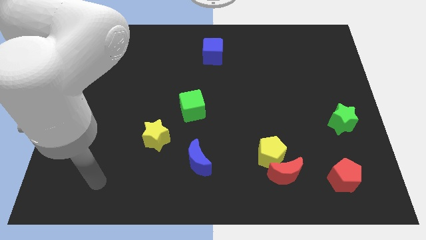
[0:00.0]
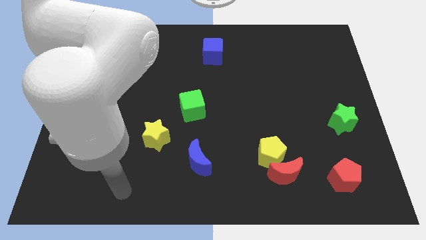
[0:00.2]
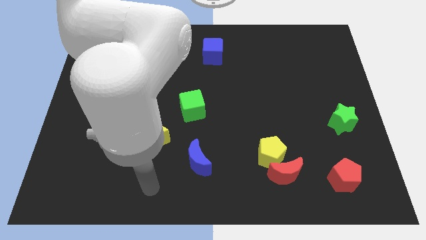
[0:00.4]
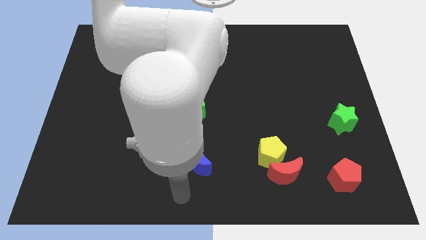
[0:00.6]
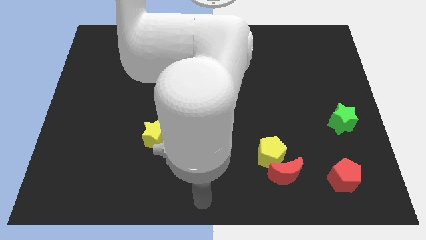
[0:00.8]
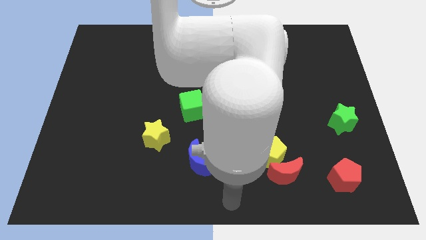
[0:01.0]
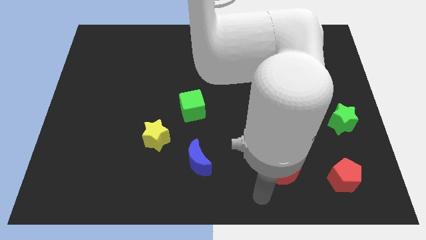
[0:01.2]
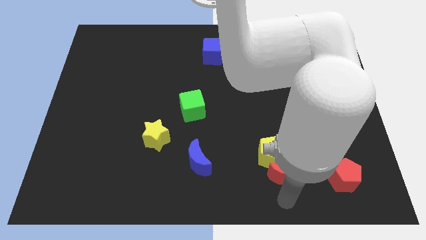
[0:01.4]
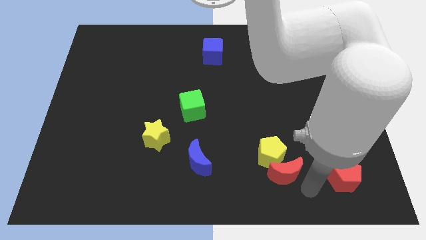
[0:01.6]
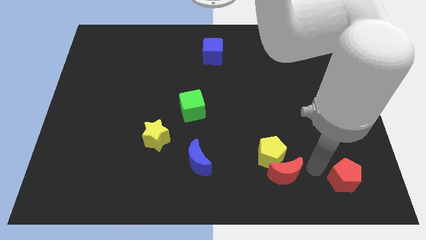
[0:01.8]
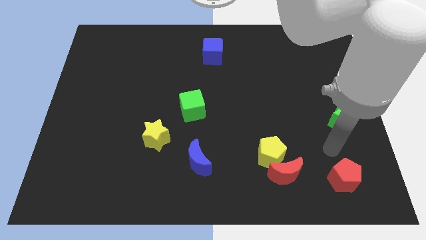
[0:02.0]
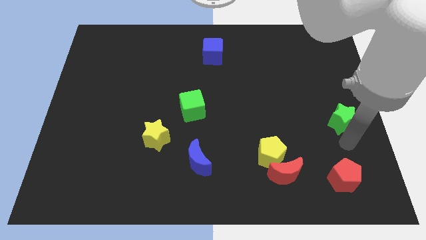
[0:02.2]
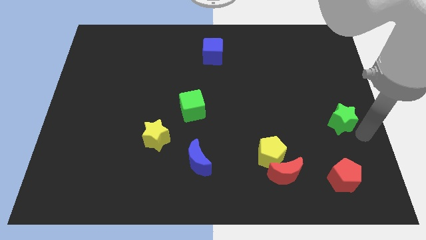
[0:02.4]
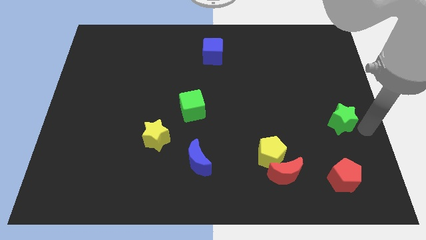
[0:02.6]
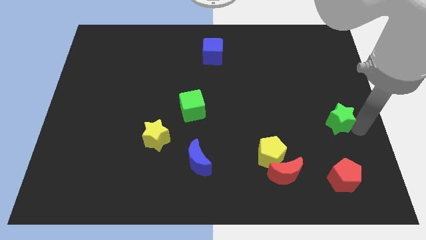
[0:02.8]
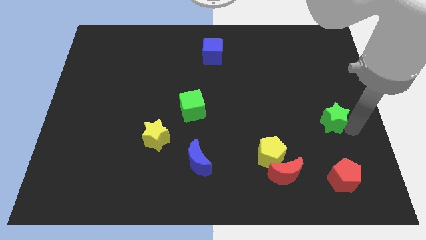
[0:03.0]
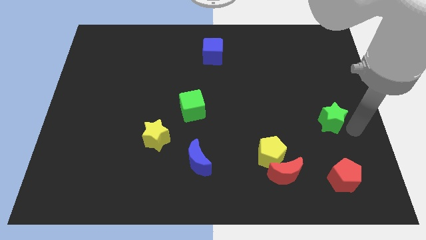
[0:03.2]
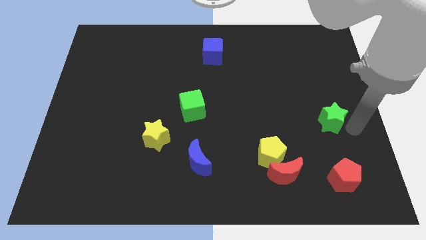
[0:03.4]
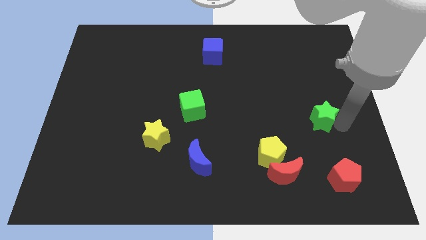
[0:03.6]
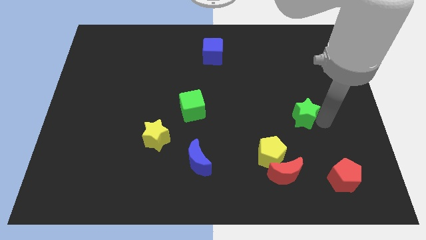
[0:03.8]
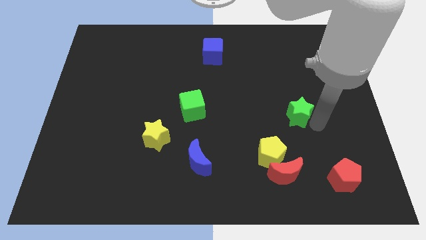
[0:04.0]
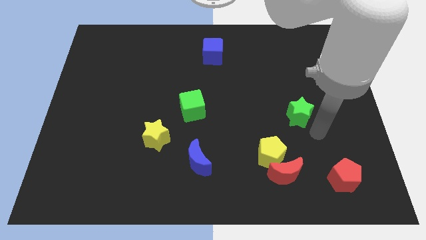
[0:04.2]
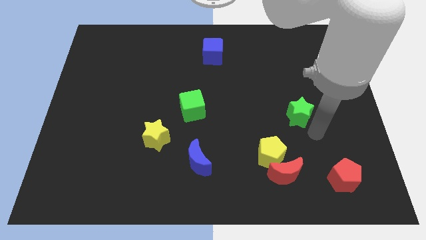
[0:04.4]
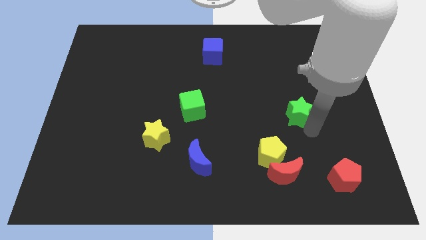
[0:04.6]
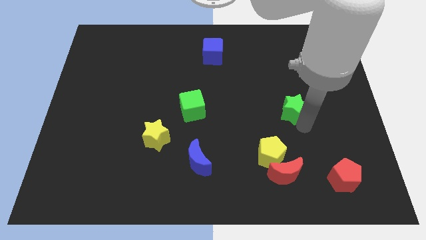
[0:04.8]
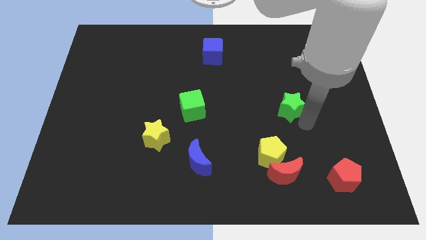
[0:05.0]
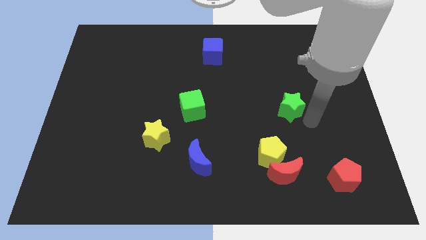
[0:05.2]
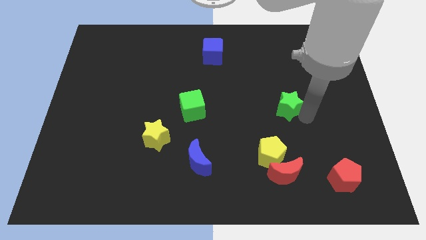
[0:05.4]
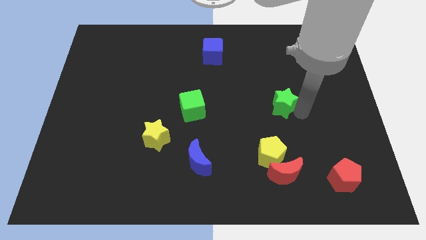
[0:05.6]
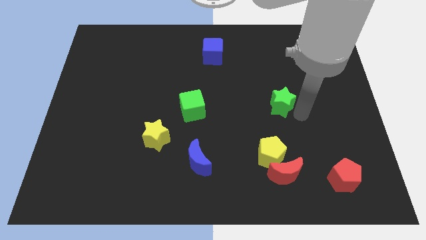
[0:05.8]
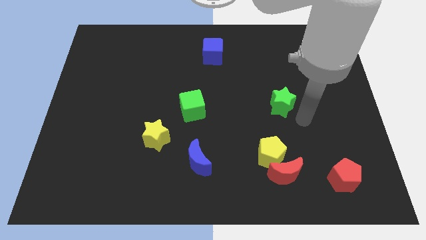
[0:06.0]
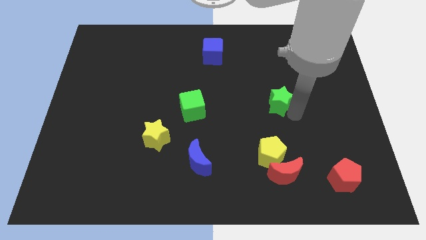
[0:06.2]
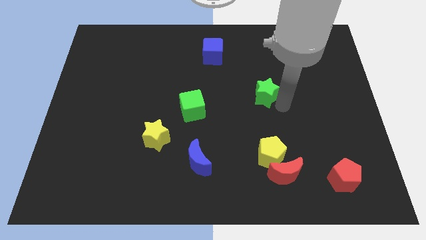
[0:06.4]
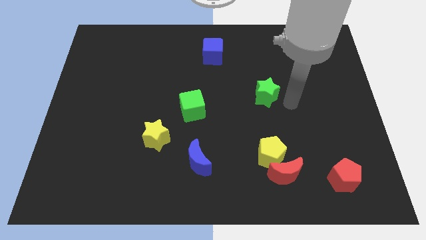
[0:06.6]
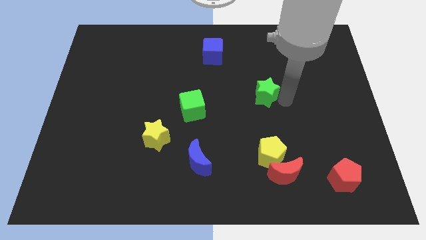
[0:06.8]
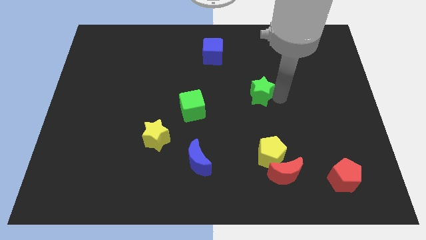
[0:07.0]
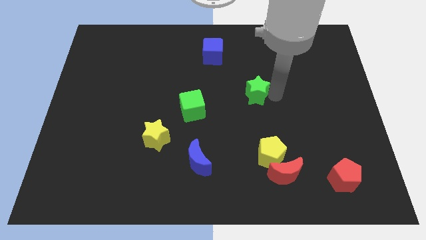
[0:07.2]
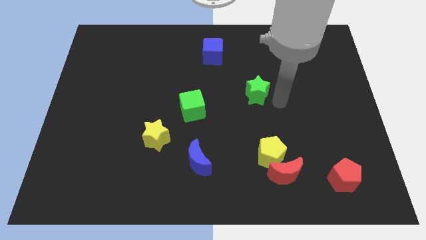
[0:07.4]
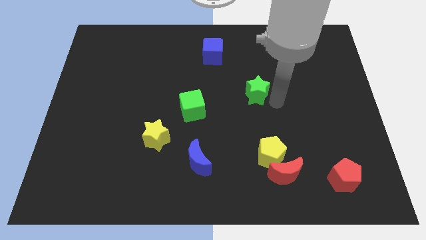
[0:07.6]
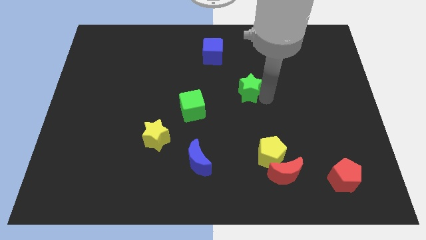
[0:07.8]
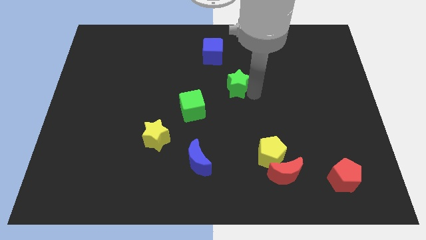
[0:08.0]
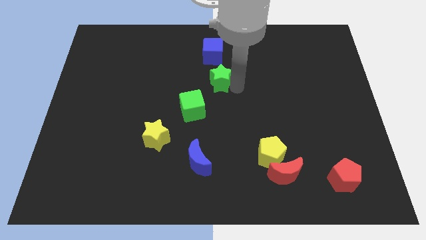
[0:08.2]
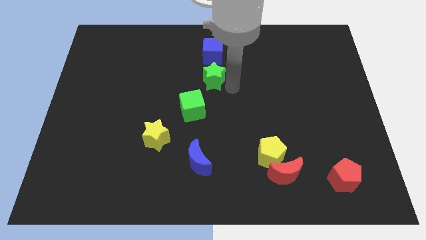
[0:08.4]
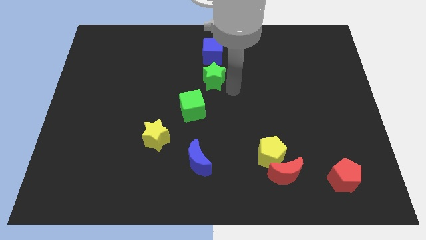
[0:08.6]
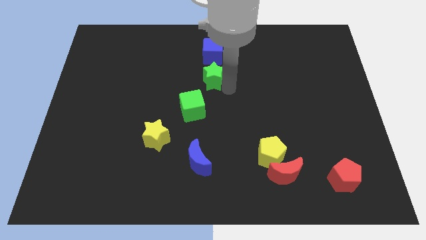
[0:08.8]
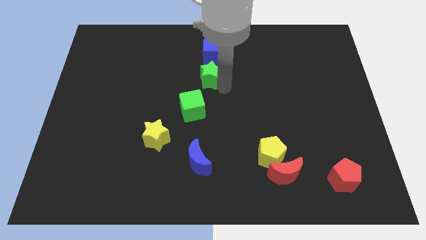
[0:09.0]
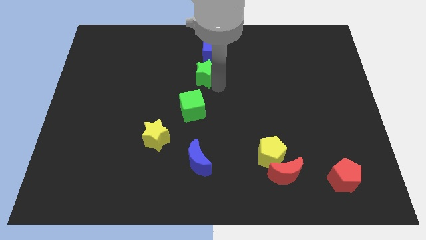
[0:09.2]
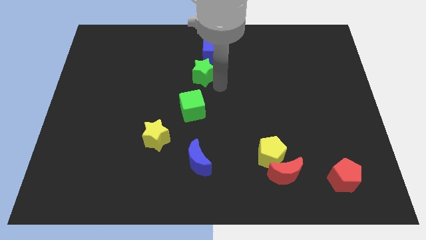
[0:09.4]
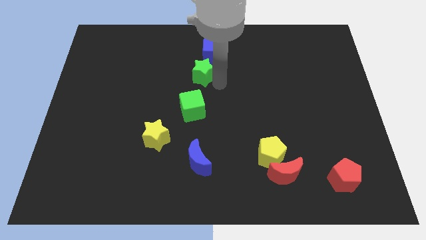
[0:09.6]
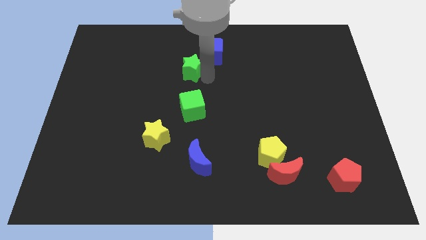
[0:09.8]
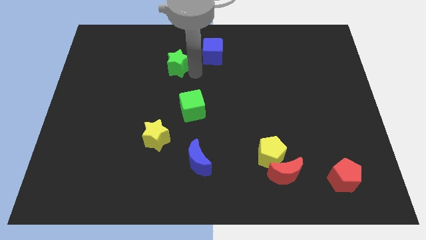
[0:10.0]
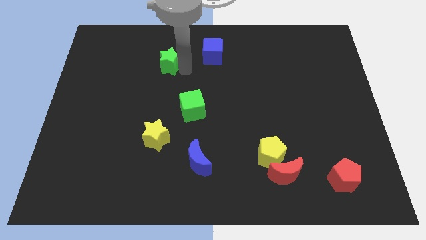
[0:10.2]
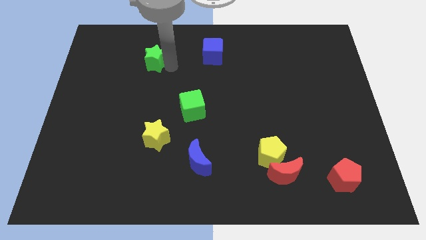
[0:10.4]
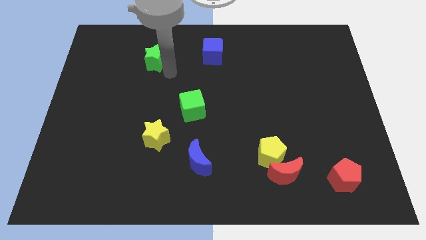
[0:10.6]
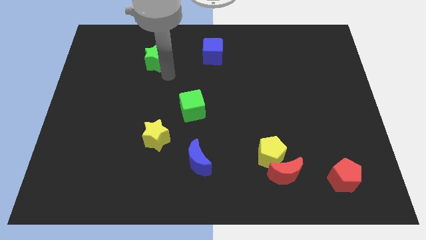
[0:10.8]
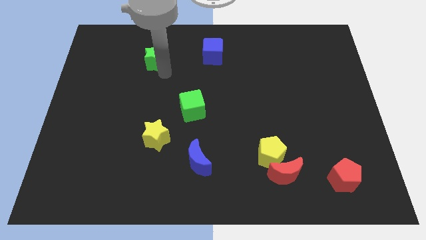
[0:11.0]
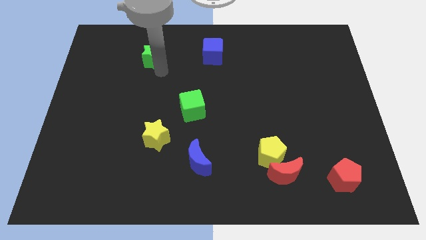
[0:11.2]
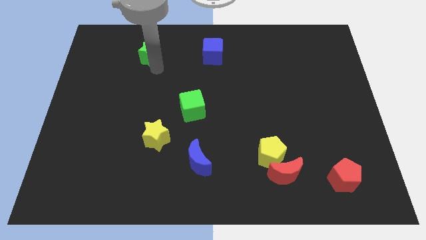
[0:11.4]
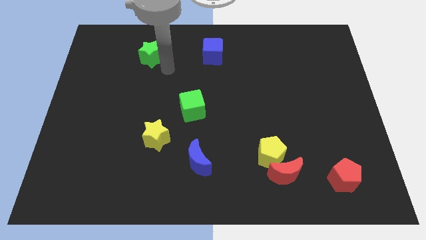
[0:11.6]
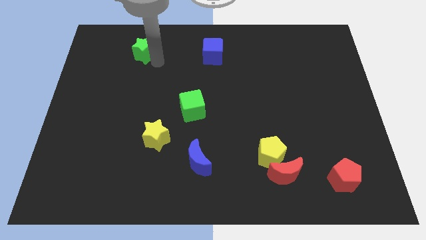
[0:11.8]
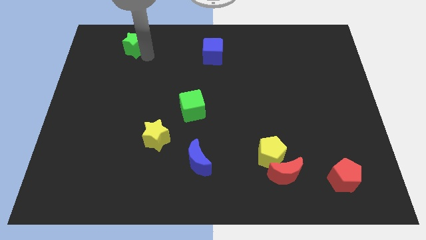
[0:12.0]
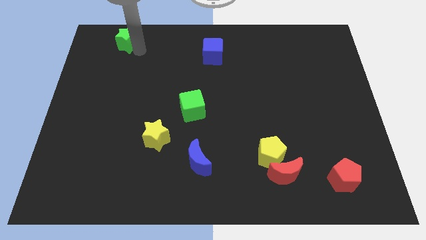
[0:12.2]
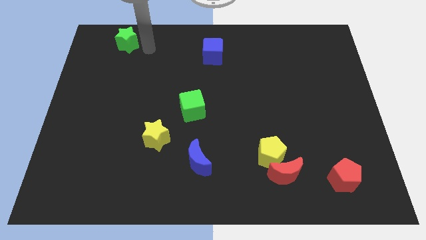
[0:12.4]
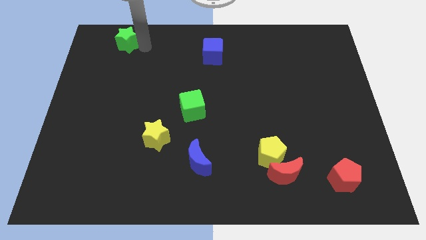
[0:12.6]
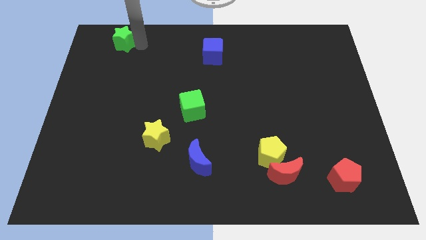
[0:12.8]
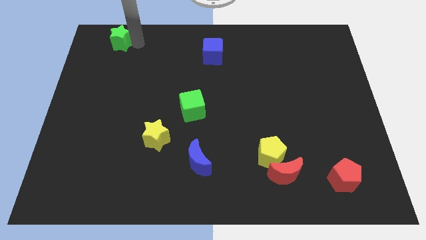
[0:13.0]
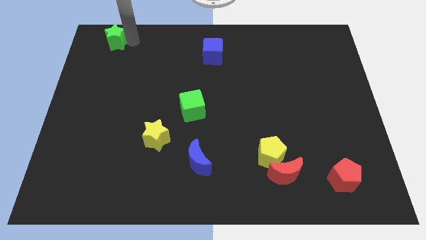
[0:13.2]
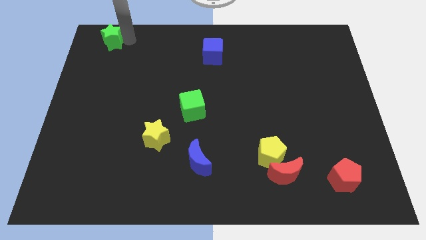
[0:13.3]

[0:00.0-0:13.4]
move the green star to the upper left corner
